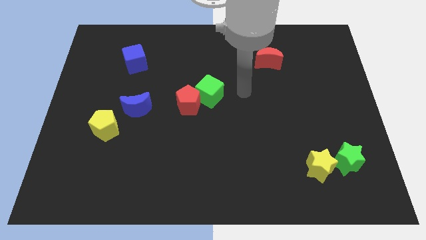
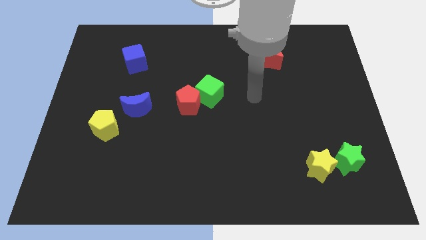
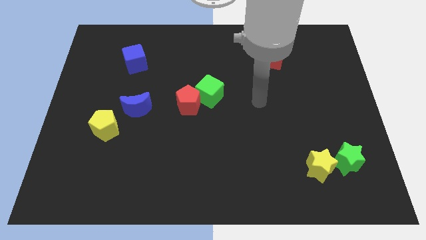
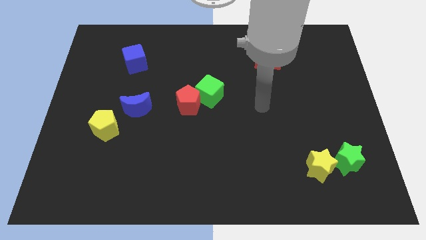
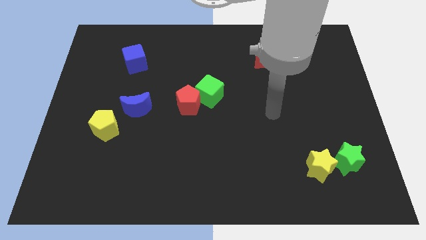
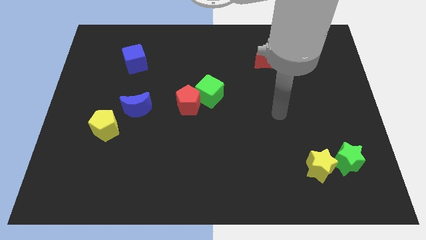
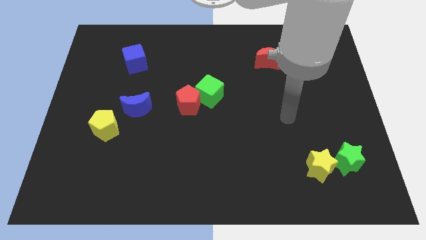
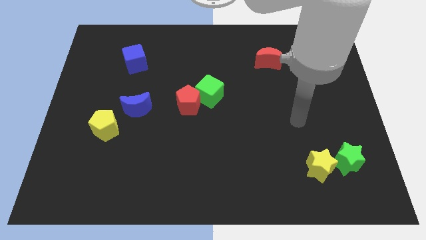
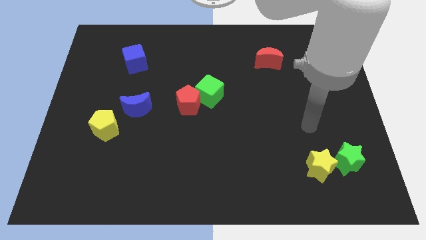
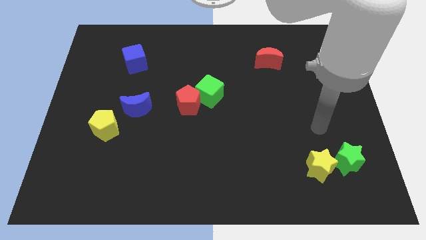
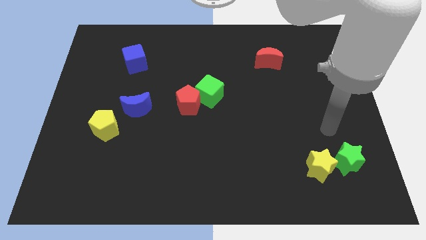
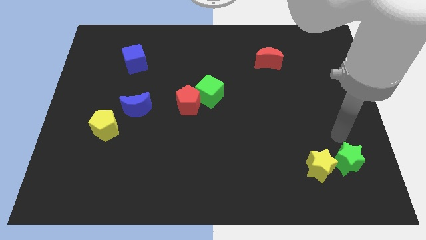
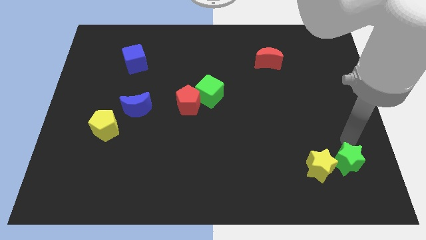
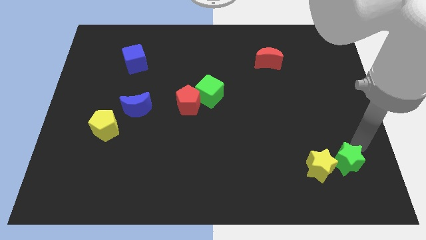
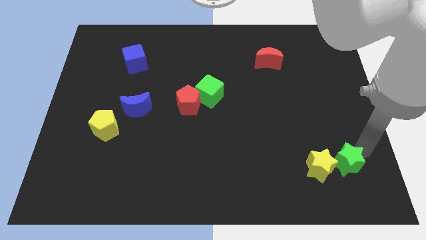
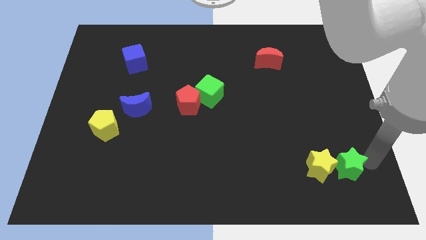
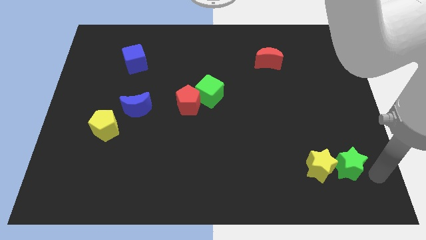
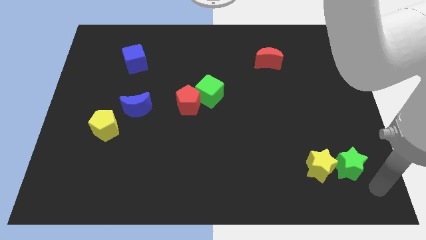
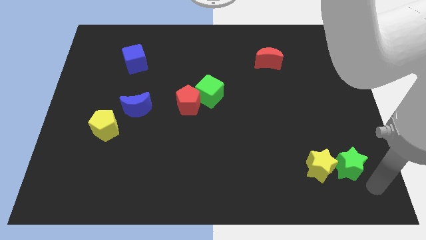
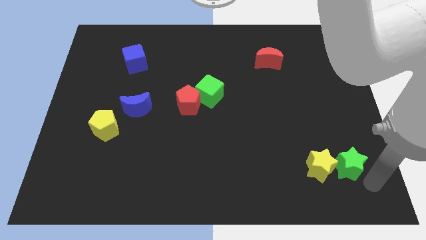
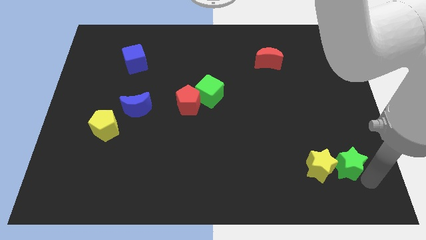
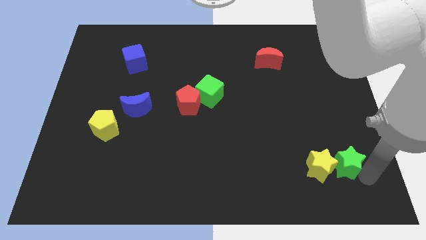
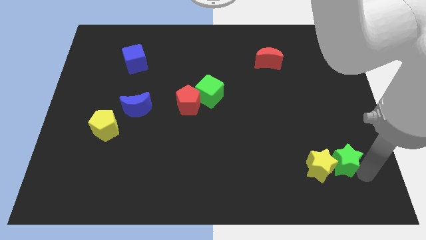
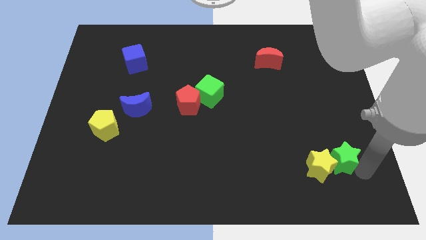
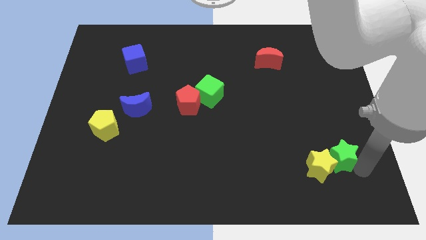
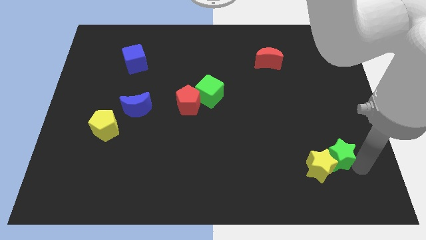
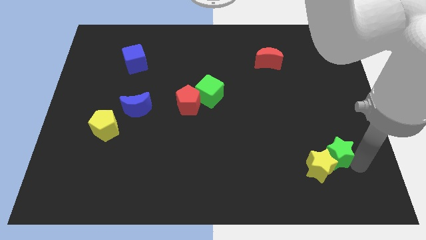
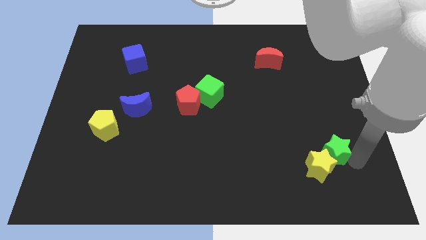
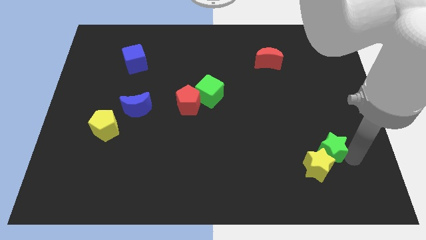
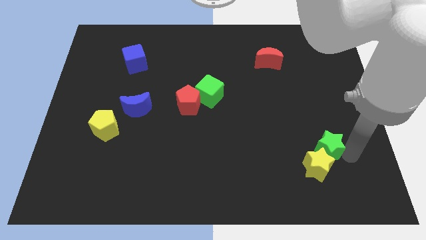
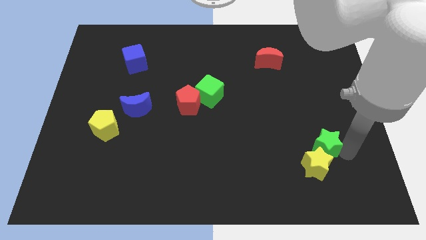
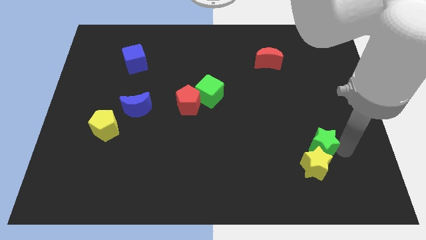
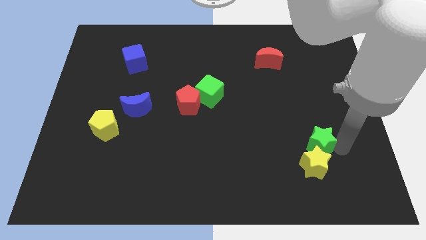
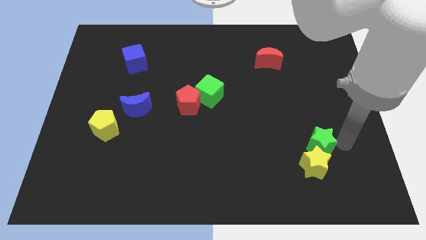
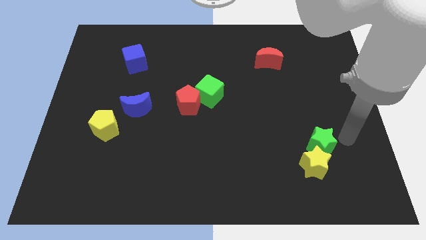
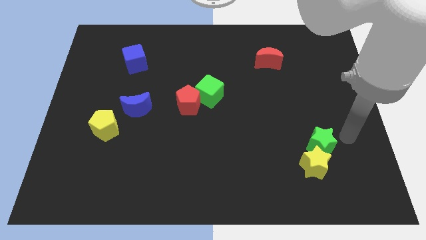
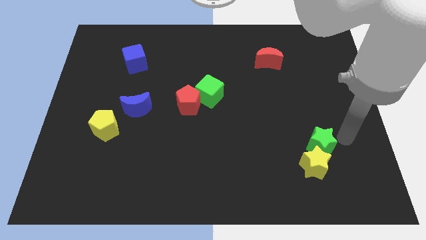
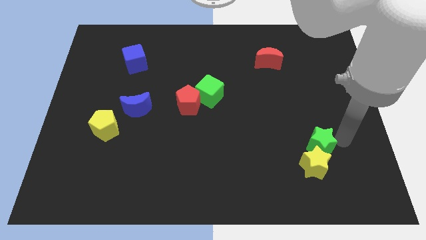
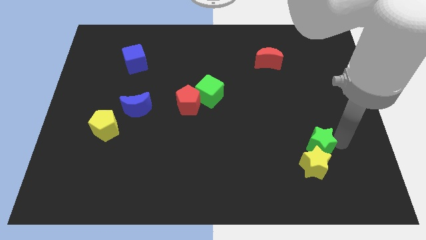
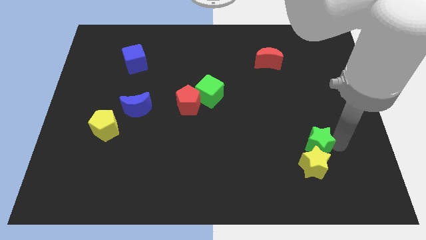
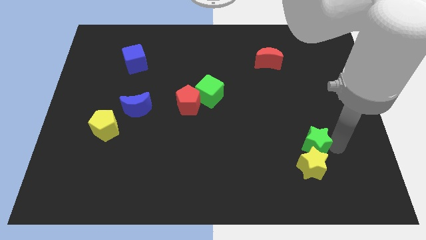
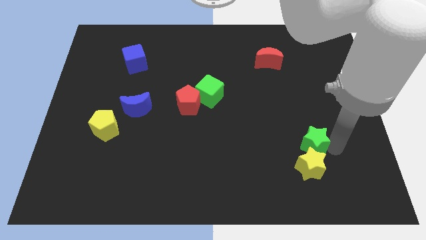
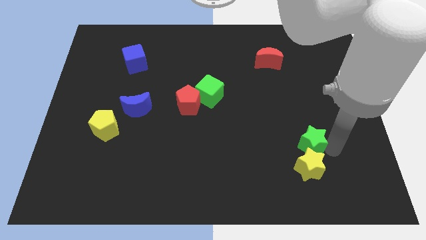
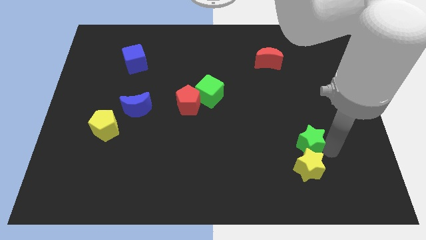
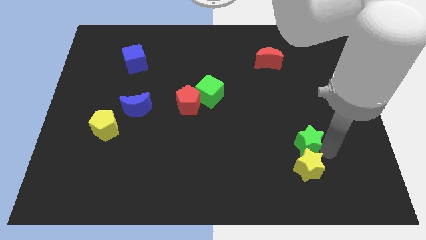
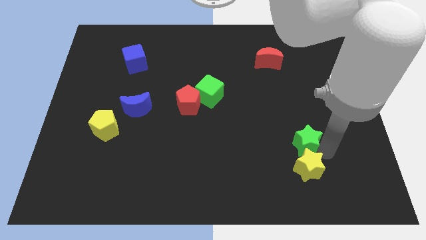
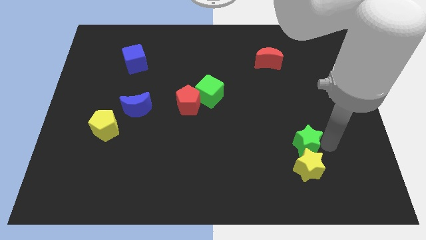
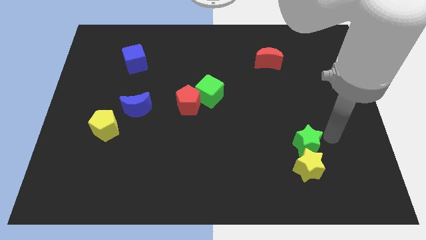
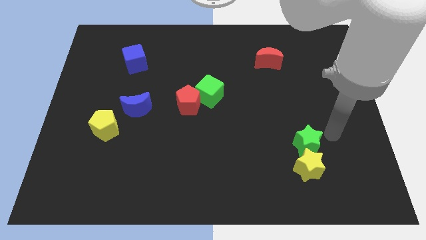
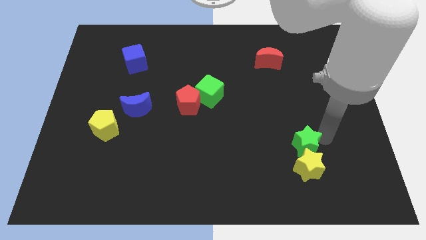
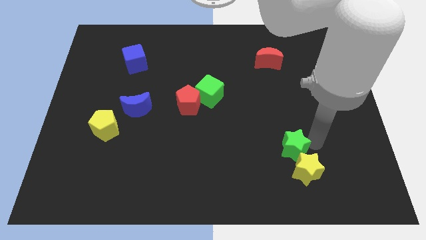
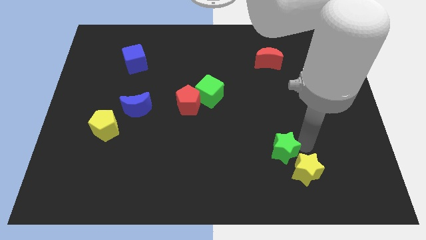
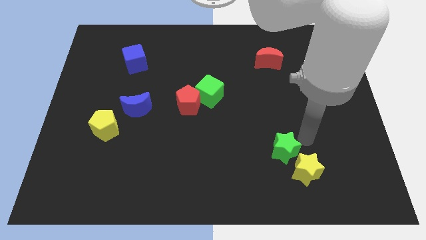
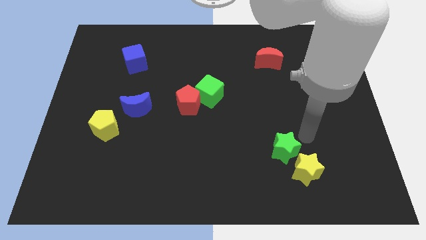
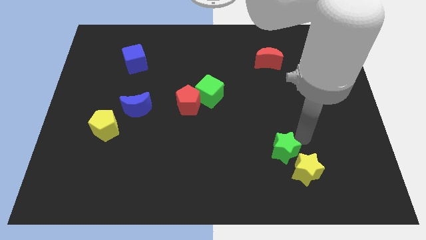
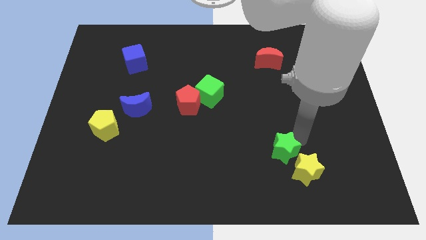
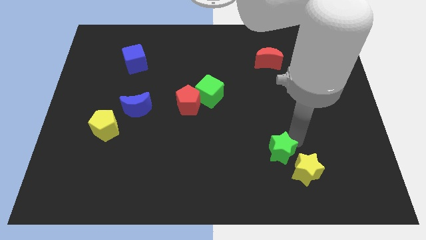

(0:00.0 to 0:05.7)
push the green star to the left of the yellow star

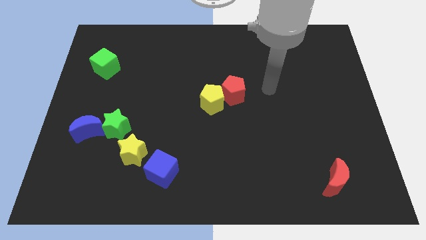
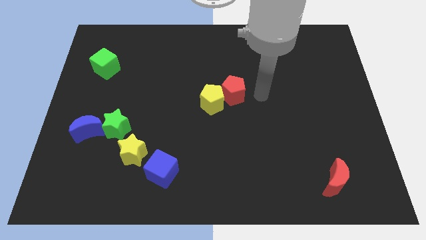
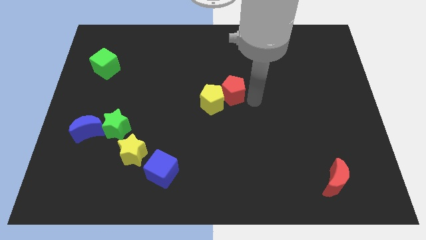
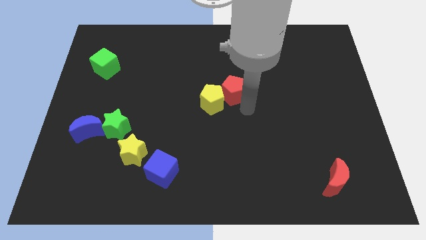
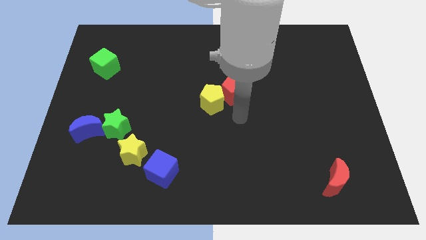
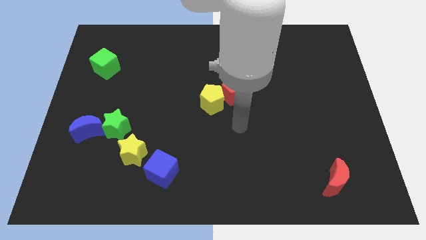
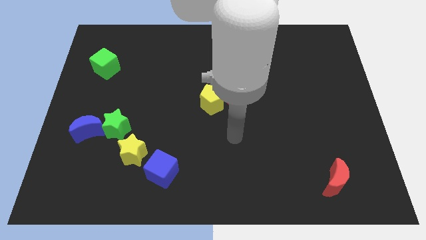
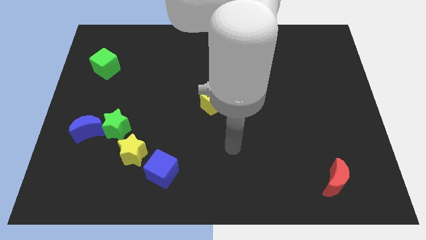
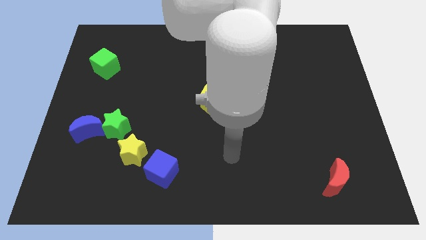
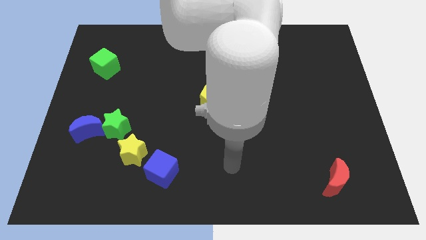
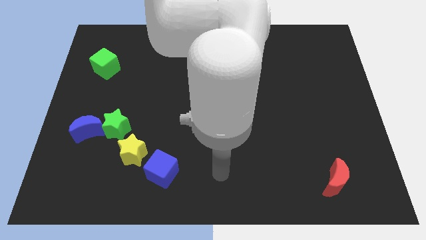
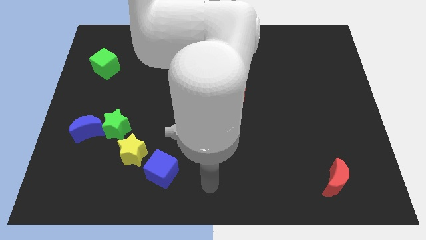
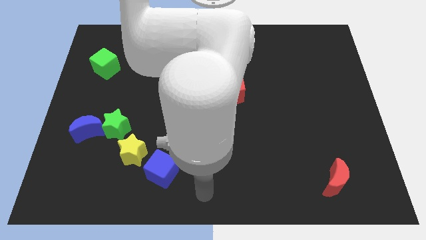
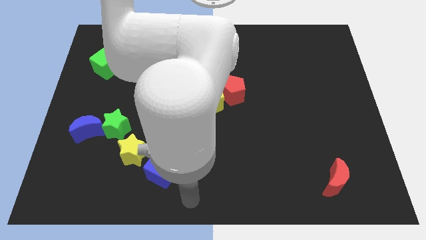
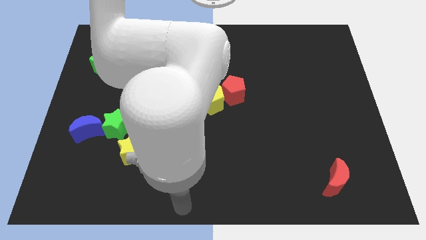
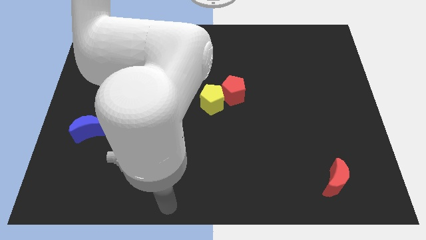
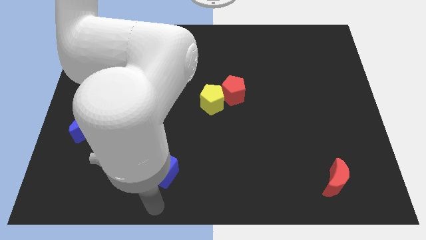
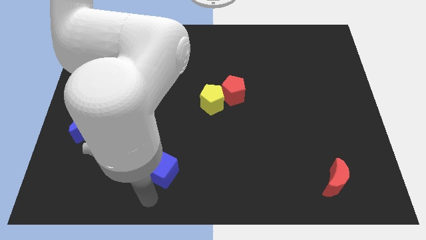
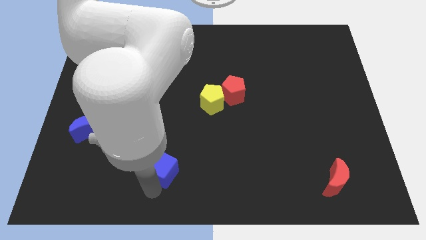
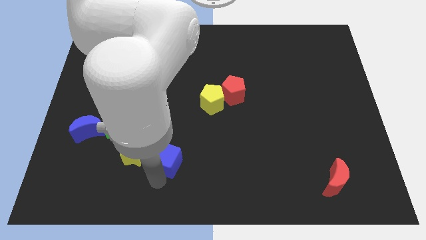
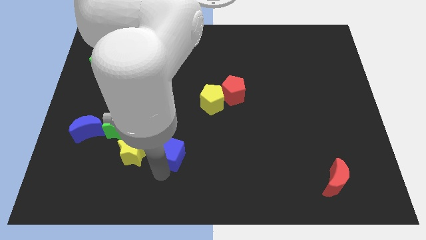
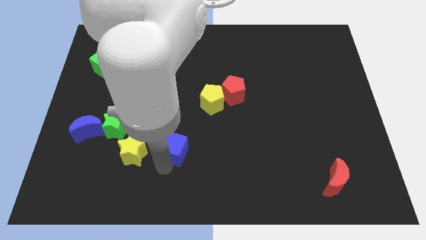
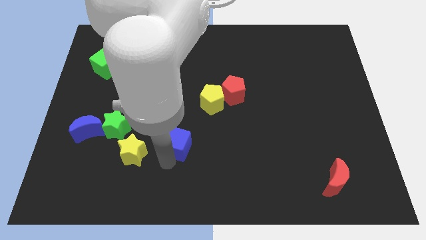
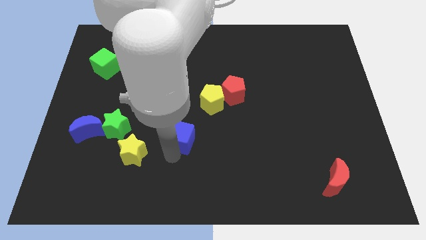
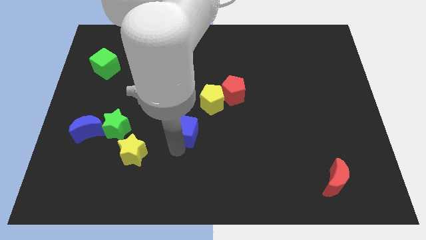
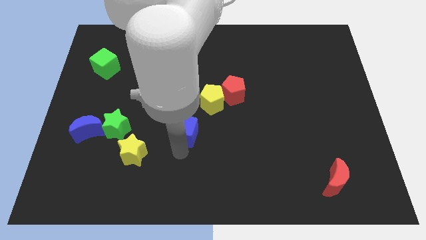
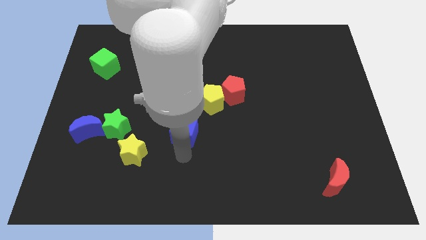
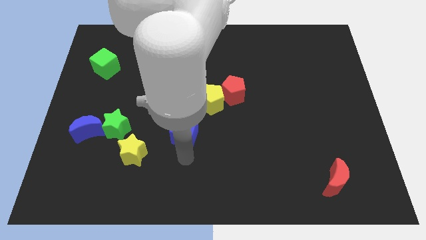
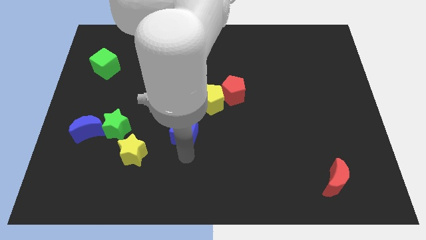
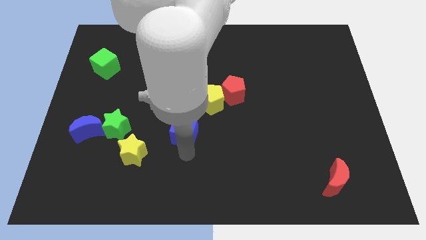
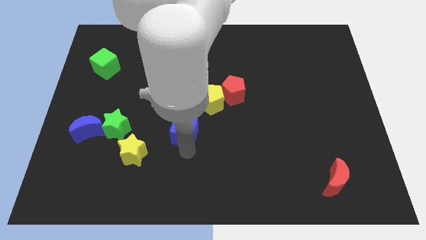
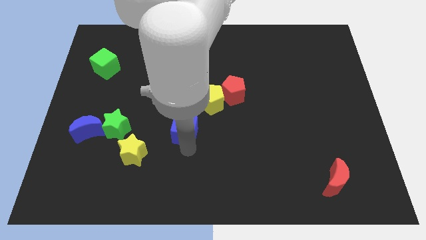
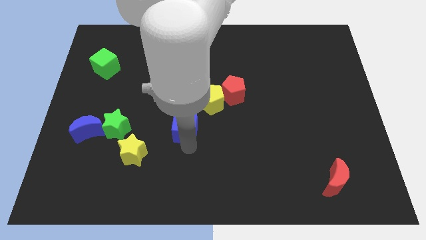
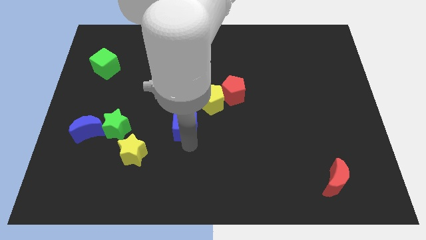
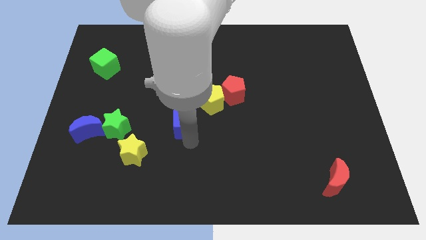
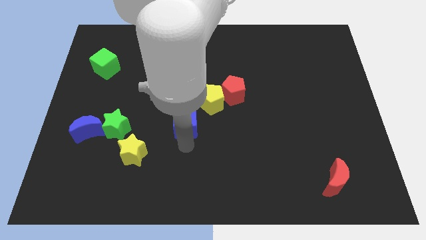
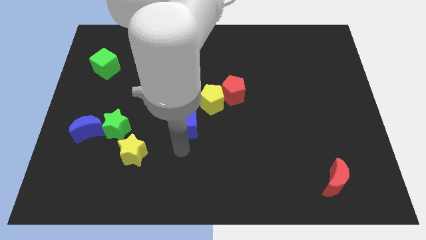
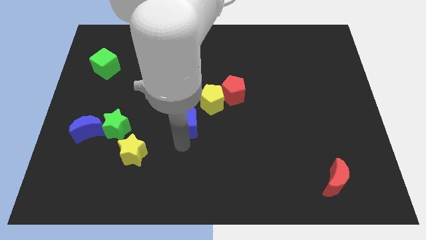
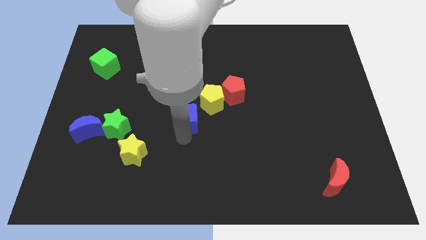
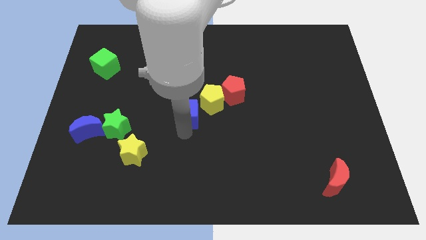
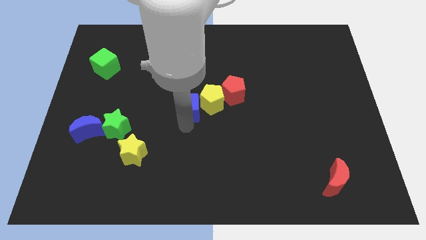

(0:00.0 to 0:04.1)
slide the blue cube to the left side of the red pentagon
